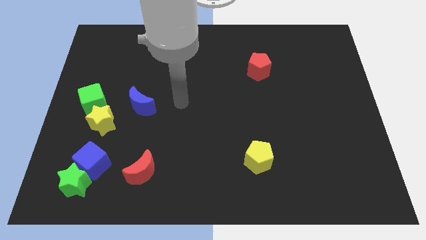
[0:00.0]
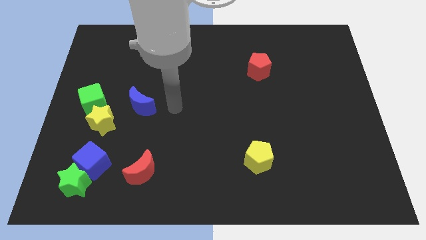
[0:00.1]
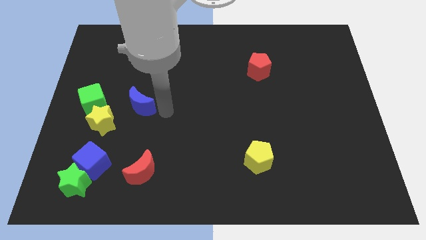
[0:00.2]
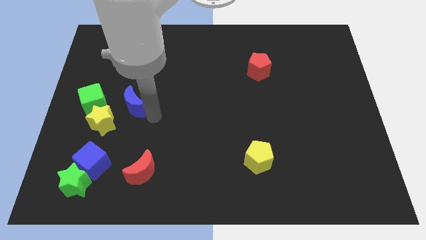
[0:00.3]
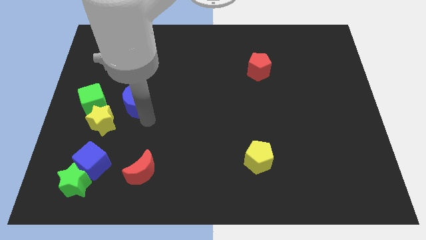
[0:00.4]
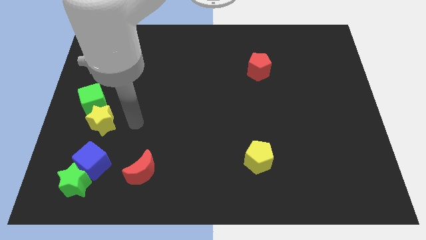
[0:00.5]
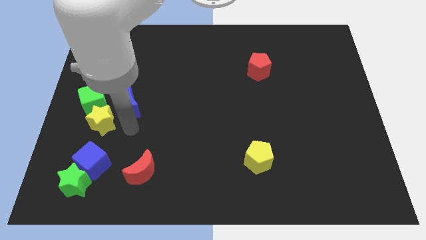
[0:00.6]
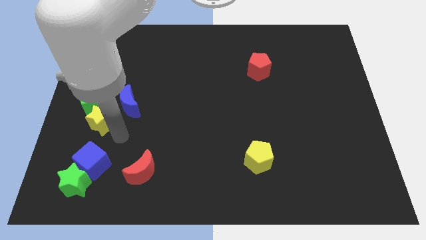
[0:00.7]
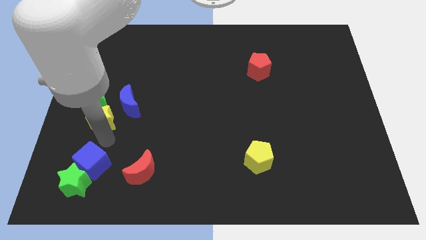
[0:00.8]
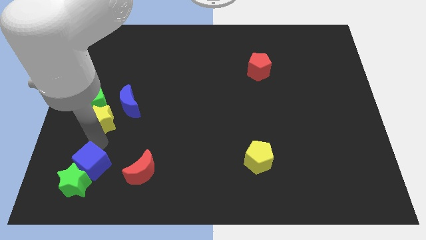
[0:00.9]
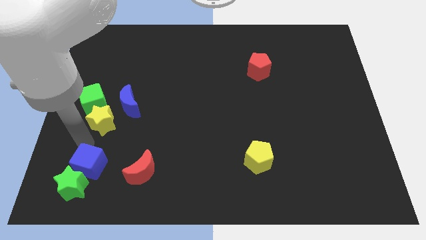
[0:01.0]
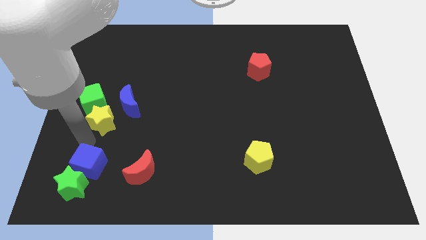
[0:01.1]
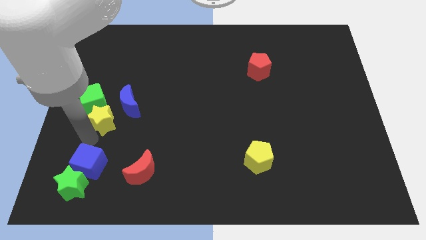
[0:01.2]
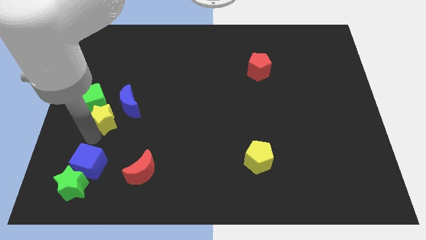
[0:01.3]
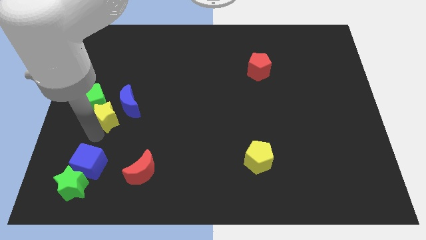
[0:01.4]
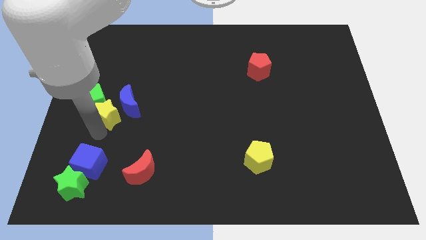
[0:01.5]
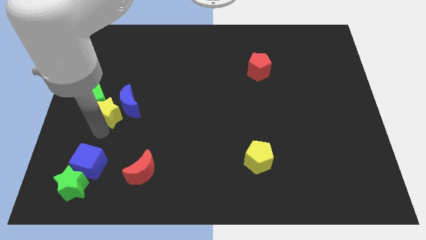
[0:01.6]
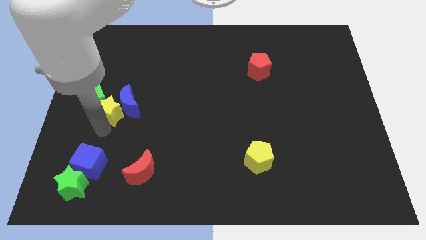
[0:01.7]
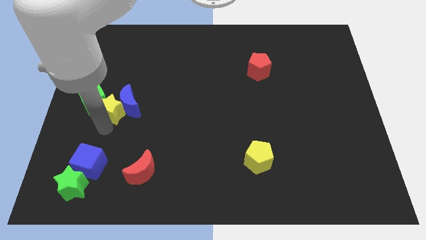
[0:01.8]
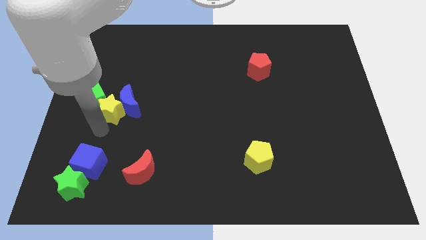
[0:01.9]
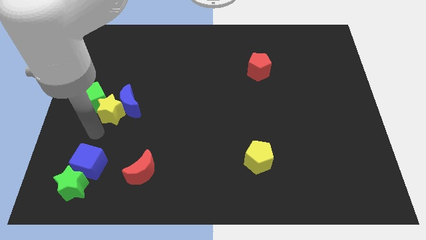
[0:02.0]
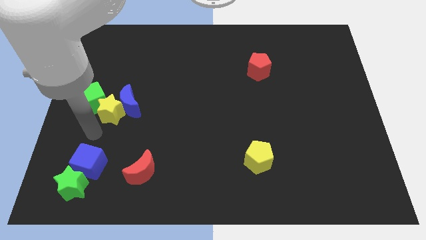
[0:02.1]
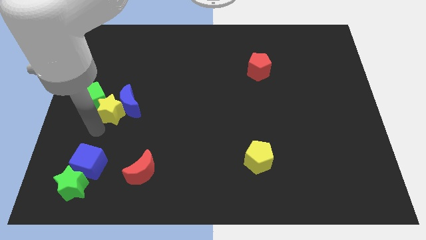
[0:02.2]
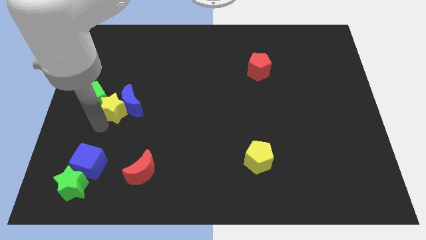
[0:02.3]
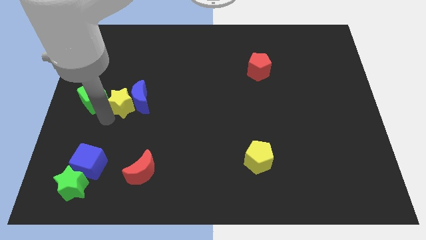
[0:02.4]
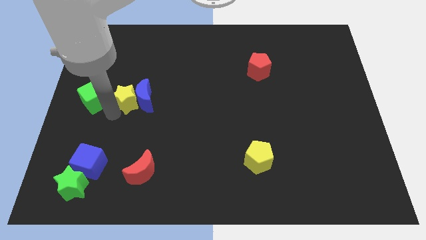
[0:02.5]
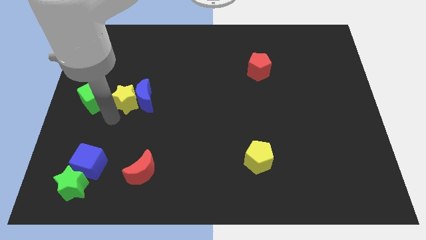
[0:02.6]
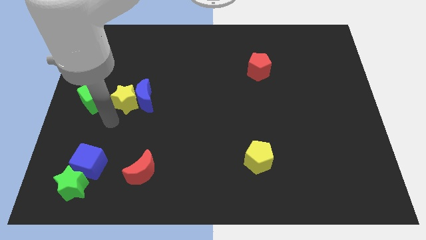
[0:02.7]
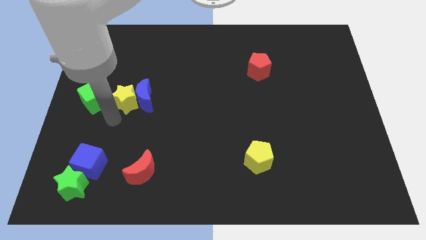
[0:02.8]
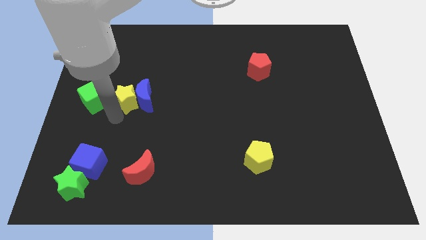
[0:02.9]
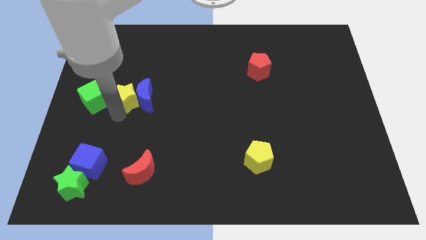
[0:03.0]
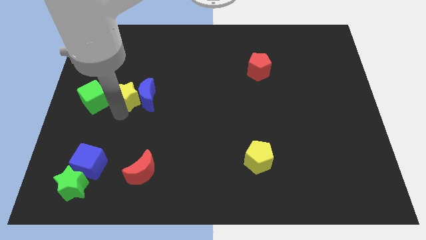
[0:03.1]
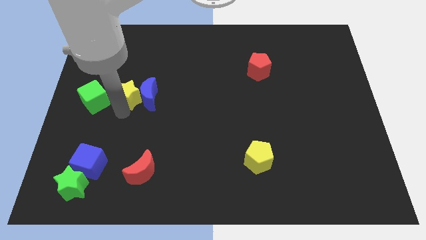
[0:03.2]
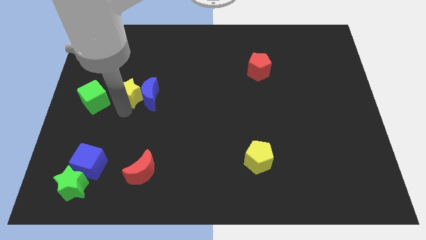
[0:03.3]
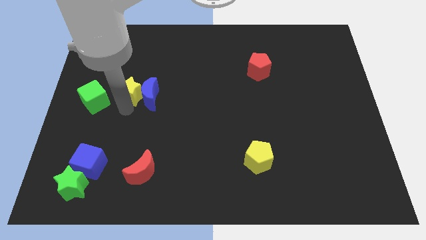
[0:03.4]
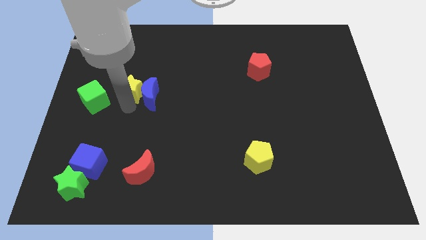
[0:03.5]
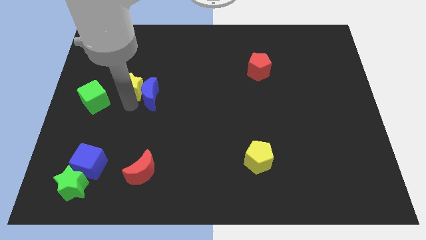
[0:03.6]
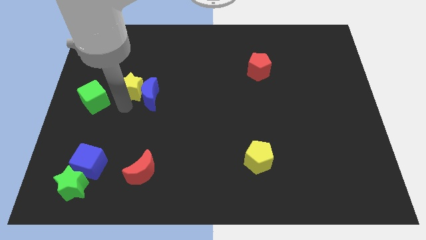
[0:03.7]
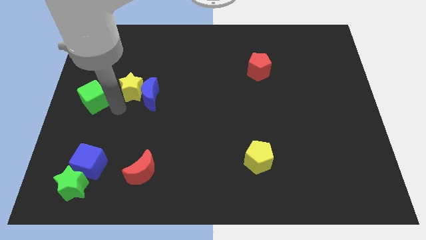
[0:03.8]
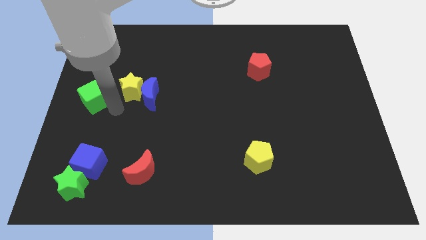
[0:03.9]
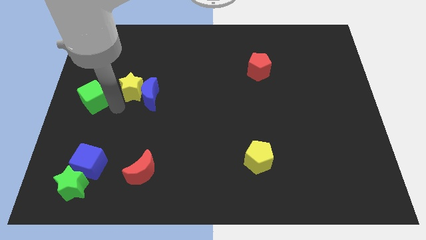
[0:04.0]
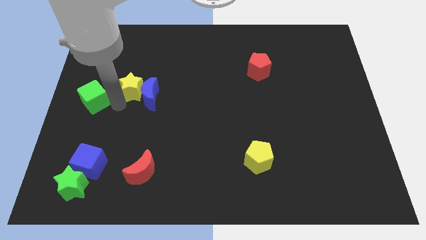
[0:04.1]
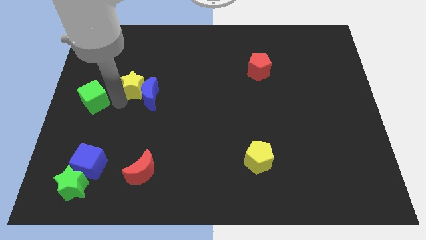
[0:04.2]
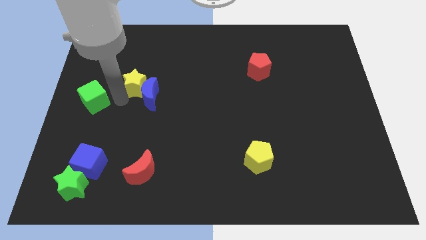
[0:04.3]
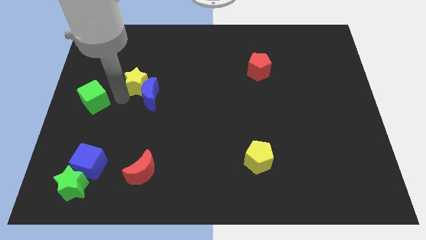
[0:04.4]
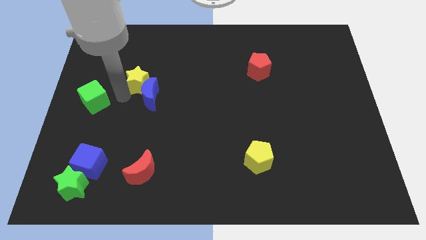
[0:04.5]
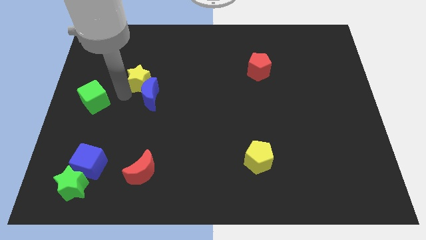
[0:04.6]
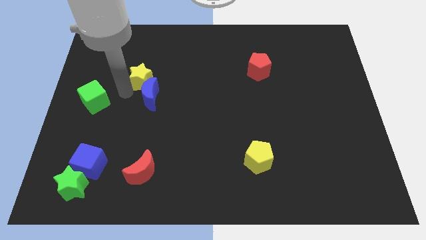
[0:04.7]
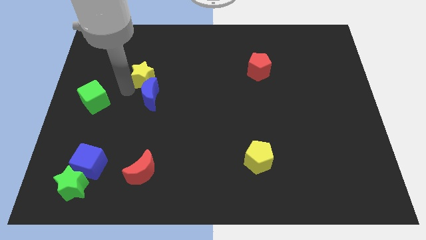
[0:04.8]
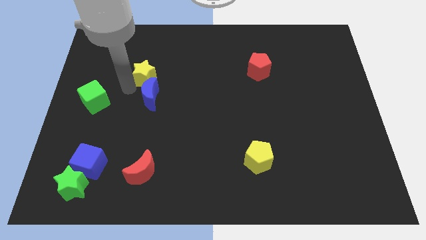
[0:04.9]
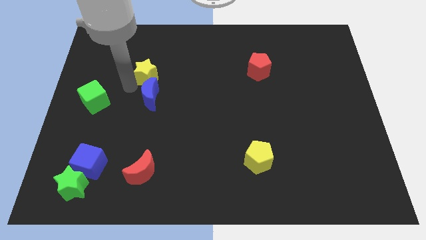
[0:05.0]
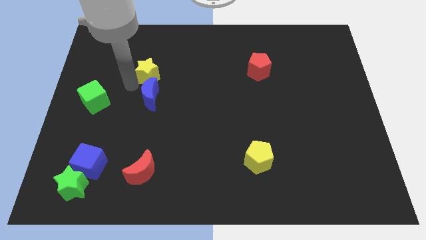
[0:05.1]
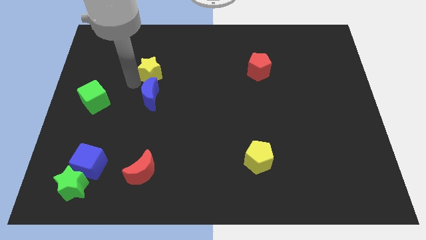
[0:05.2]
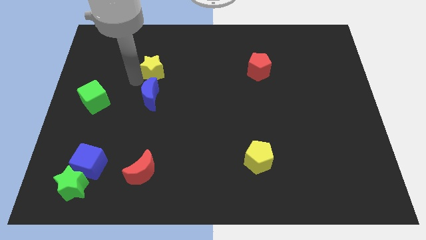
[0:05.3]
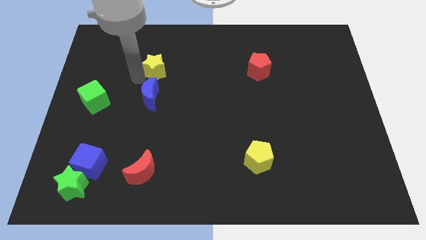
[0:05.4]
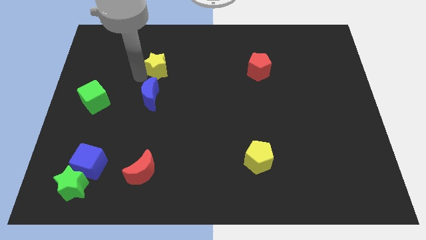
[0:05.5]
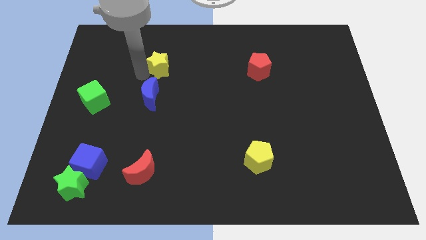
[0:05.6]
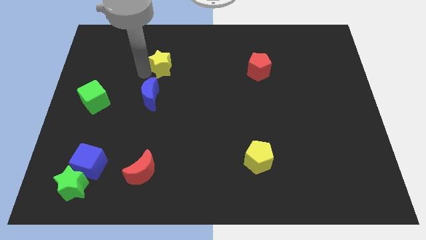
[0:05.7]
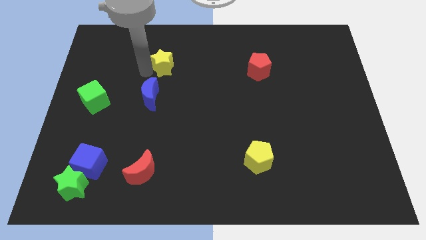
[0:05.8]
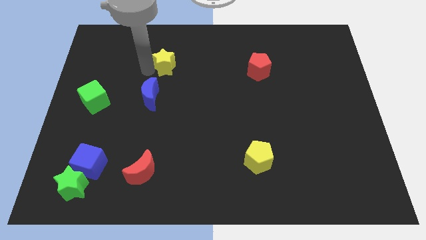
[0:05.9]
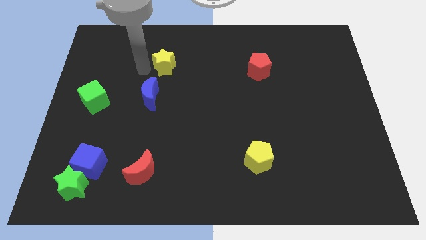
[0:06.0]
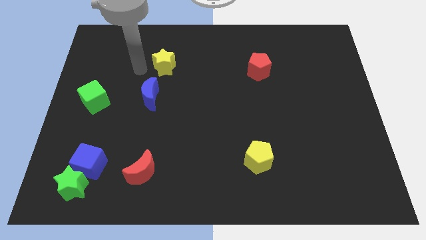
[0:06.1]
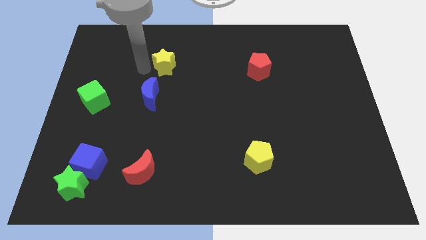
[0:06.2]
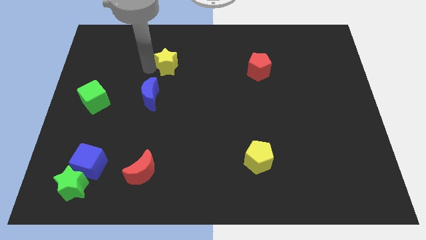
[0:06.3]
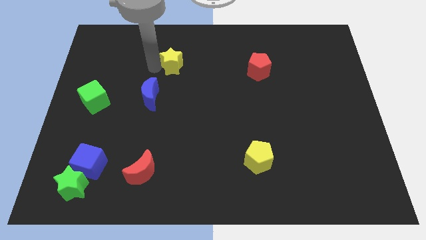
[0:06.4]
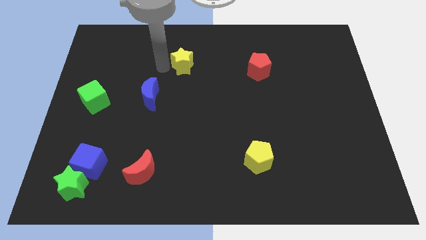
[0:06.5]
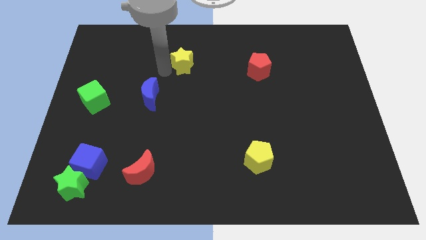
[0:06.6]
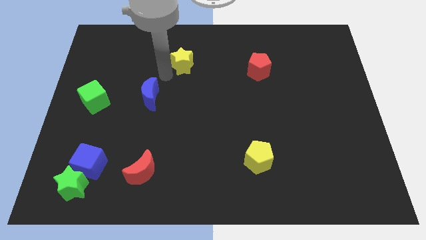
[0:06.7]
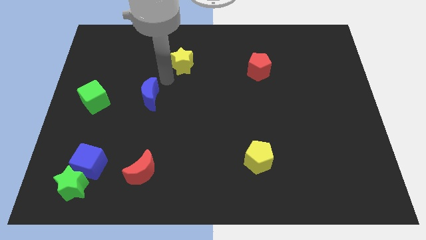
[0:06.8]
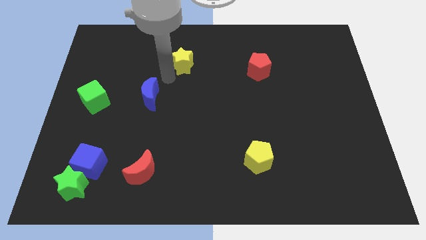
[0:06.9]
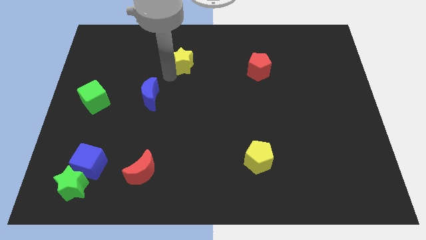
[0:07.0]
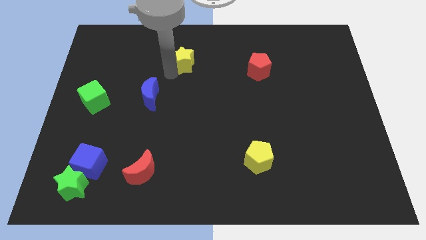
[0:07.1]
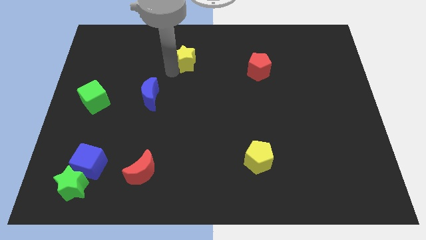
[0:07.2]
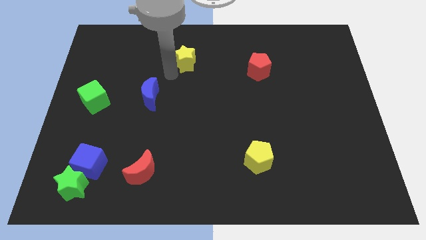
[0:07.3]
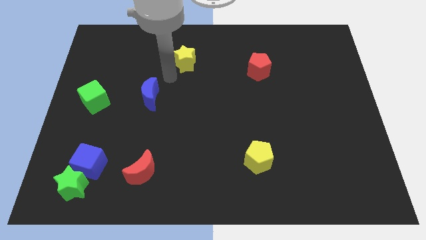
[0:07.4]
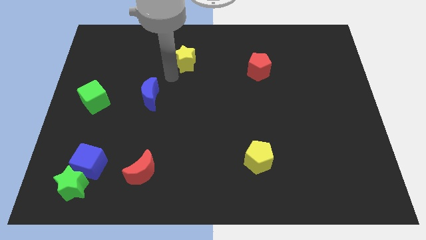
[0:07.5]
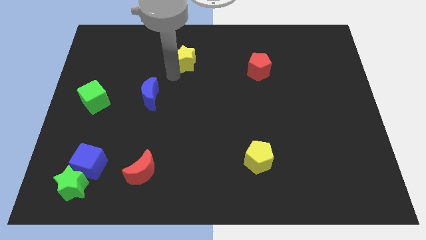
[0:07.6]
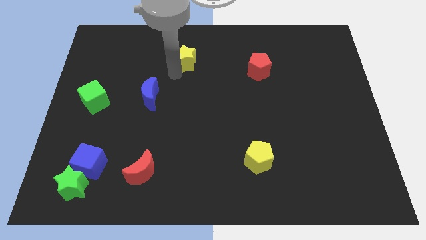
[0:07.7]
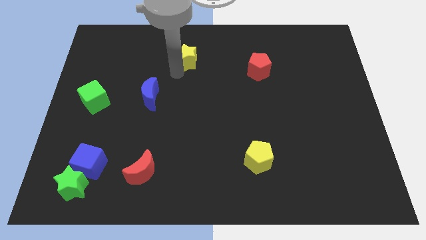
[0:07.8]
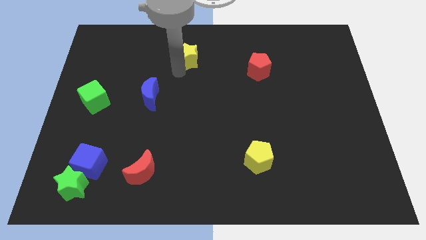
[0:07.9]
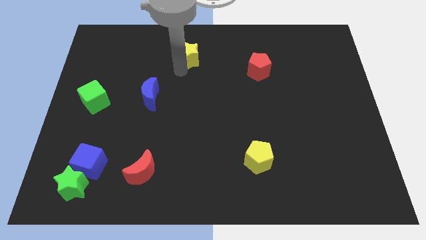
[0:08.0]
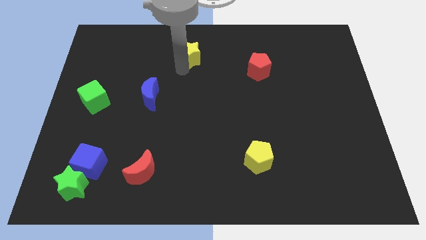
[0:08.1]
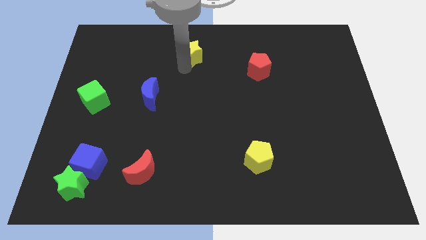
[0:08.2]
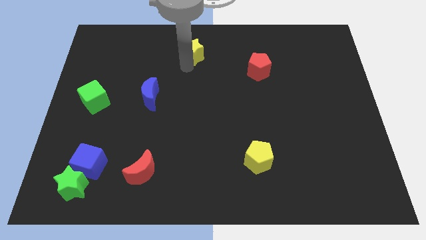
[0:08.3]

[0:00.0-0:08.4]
slide the yellow star to the top side
